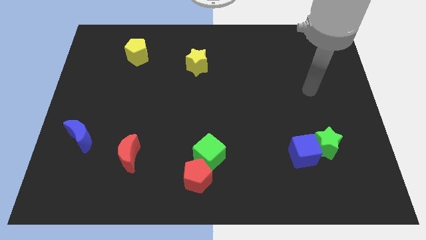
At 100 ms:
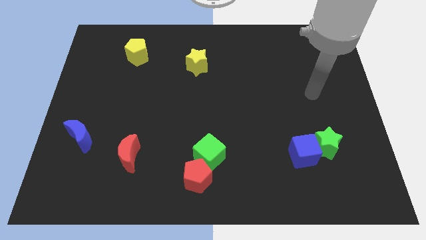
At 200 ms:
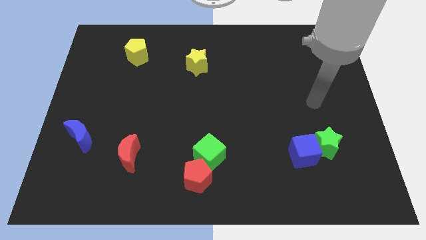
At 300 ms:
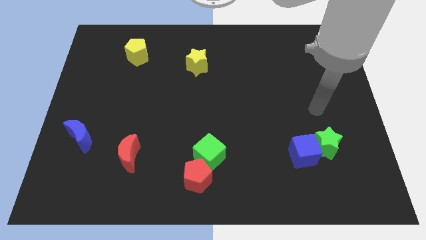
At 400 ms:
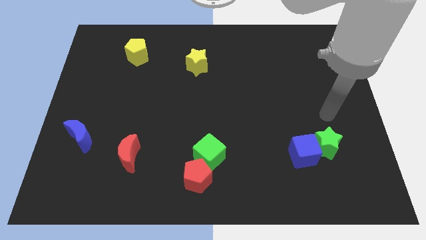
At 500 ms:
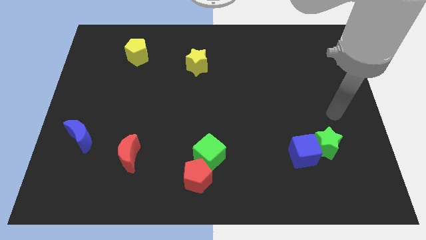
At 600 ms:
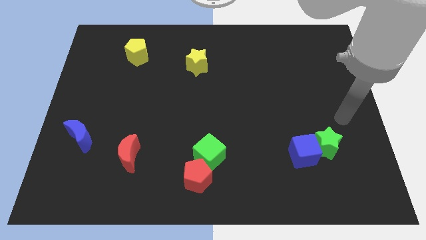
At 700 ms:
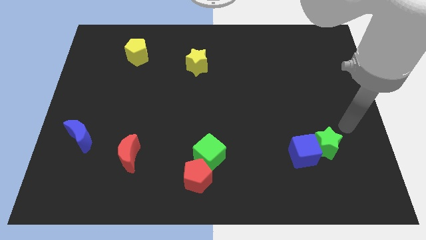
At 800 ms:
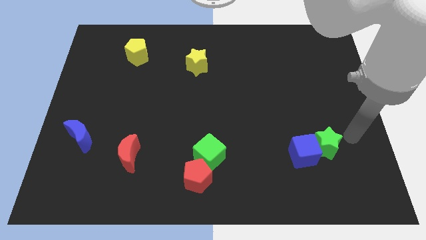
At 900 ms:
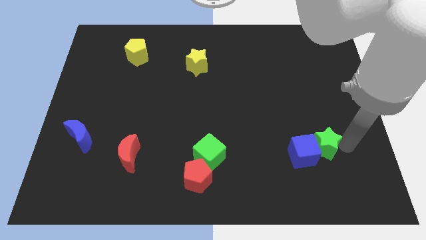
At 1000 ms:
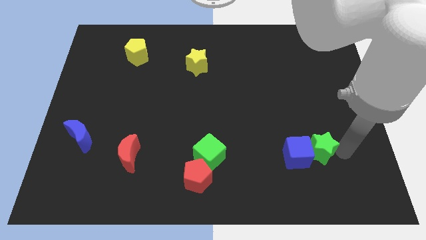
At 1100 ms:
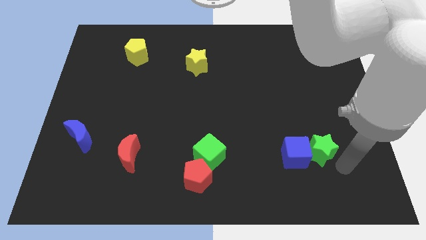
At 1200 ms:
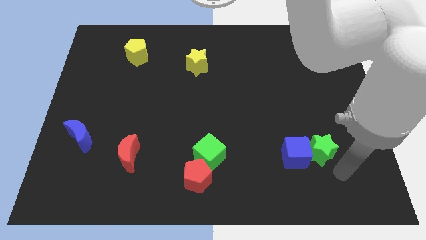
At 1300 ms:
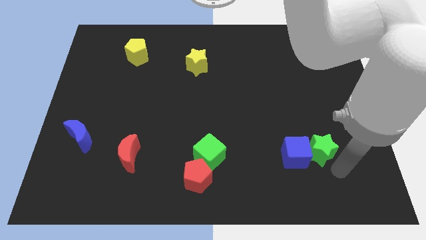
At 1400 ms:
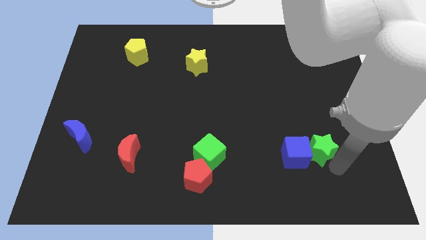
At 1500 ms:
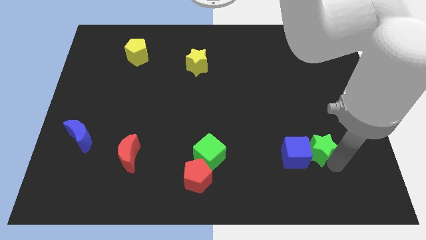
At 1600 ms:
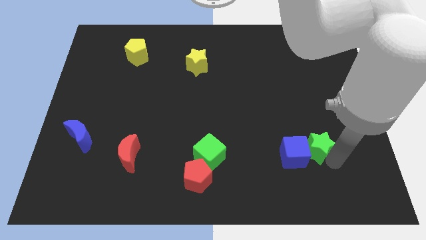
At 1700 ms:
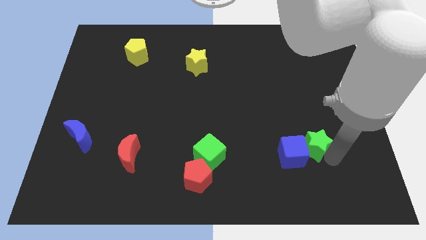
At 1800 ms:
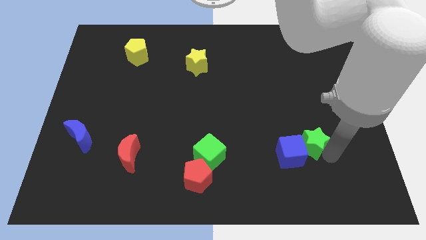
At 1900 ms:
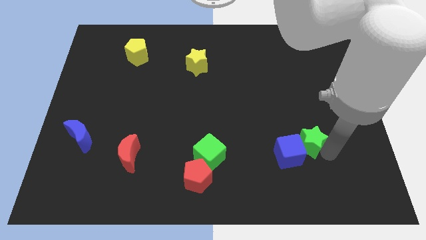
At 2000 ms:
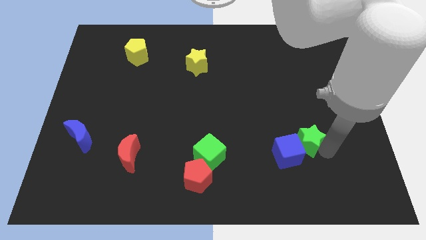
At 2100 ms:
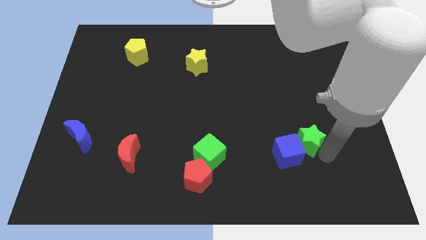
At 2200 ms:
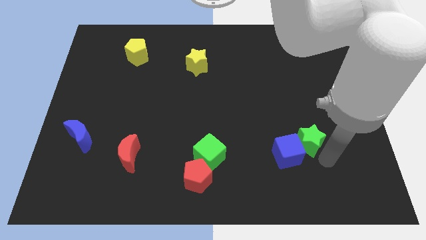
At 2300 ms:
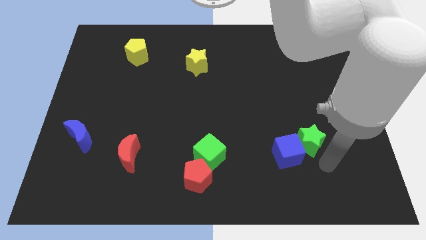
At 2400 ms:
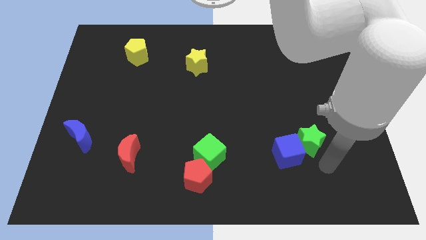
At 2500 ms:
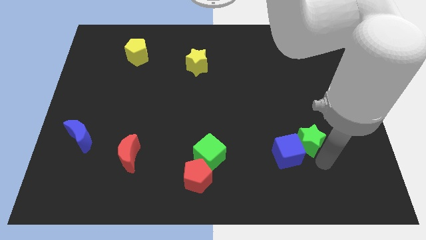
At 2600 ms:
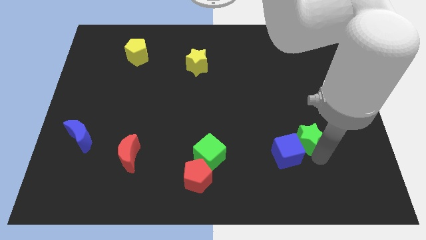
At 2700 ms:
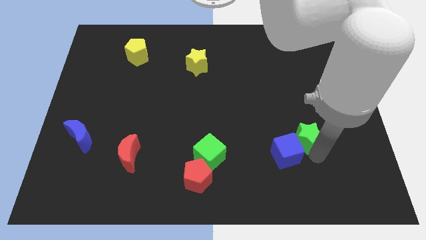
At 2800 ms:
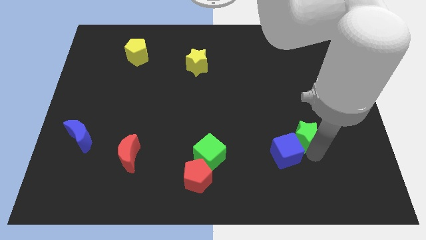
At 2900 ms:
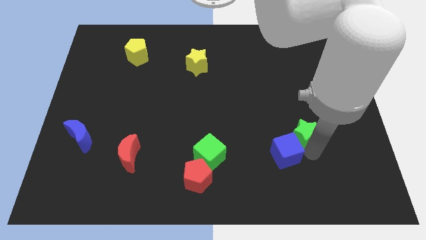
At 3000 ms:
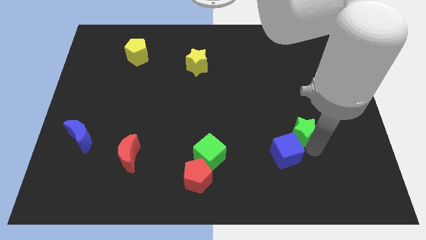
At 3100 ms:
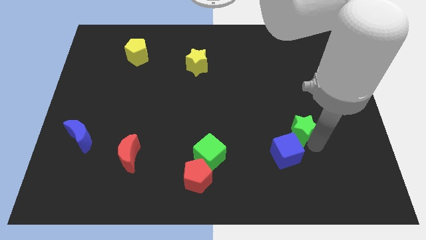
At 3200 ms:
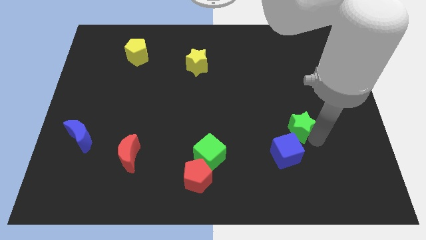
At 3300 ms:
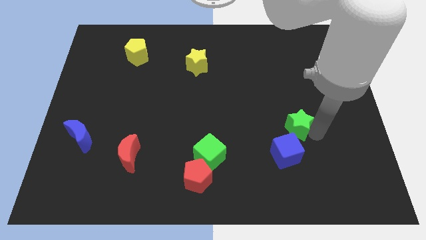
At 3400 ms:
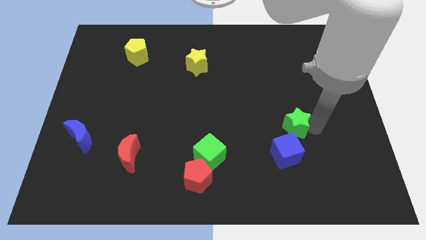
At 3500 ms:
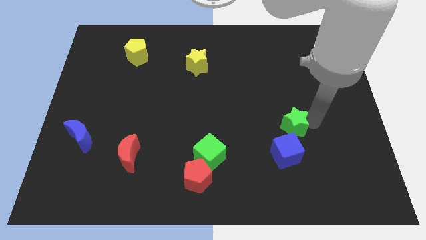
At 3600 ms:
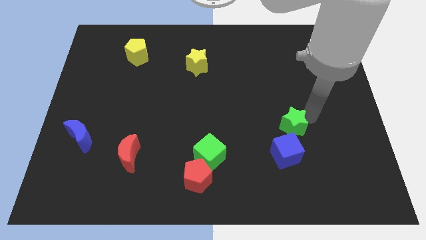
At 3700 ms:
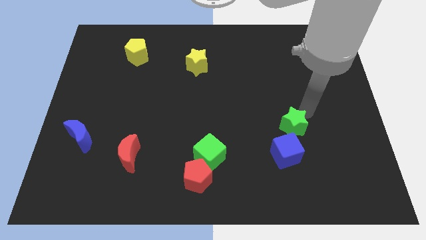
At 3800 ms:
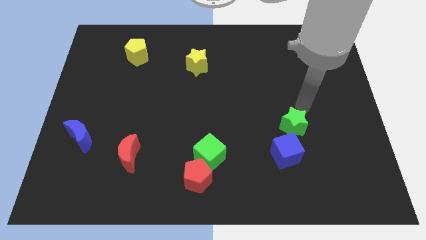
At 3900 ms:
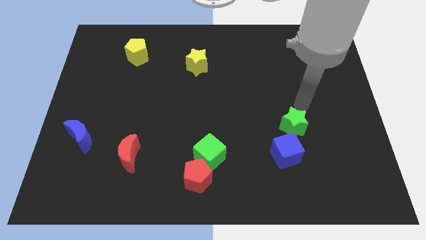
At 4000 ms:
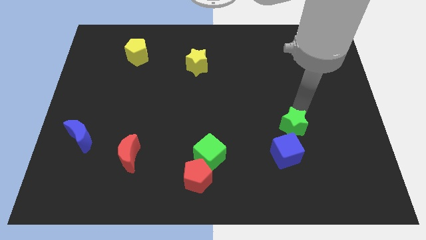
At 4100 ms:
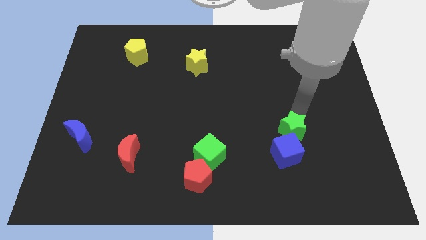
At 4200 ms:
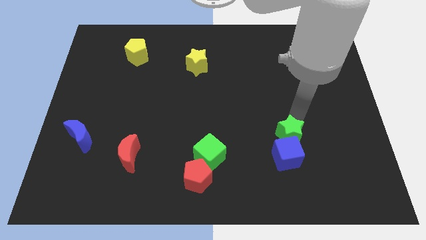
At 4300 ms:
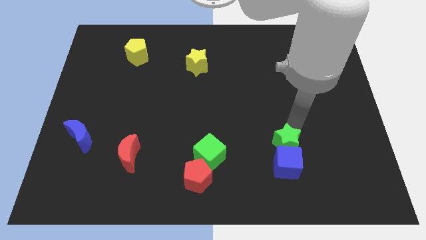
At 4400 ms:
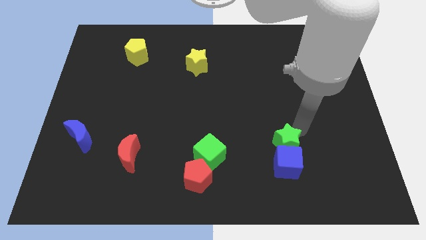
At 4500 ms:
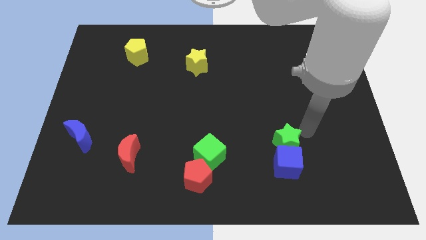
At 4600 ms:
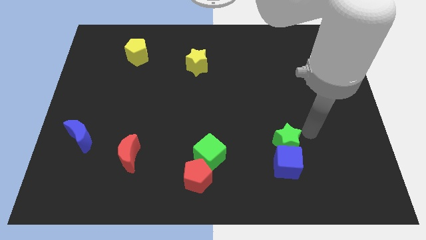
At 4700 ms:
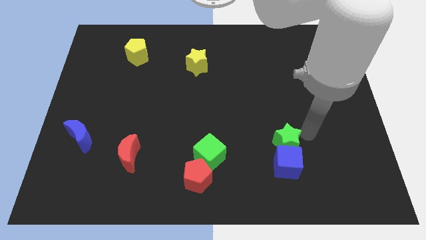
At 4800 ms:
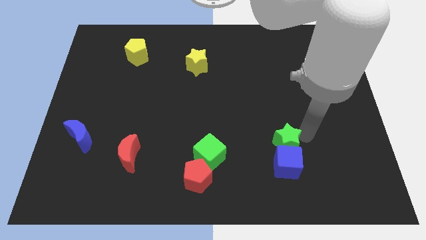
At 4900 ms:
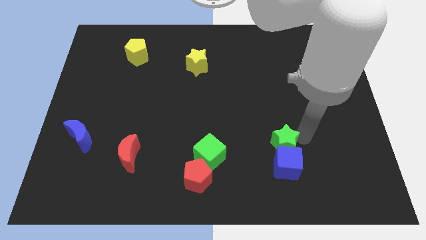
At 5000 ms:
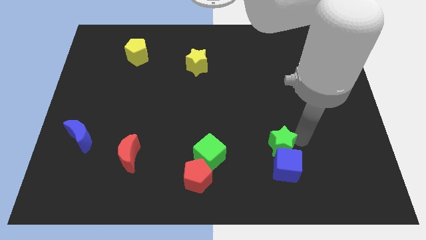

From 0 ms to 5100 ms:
slide the green star just right of the green cube

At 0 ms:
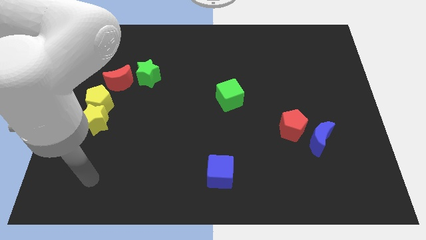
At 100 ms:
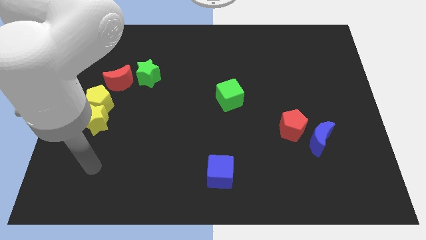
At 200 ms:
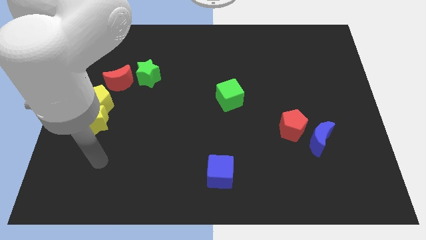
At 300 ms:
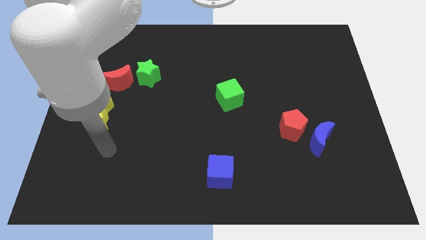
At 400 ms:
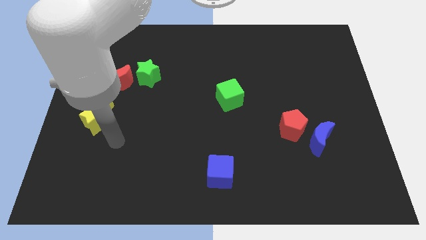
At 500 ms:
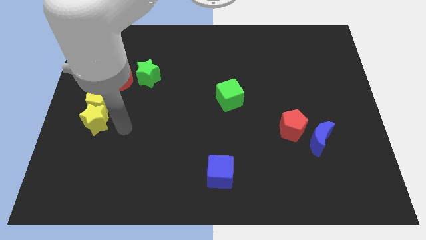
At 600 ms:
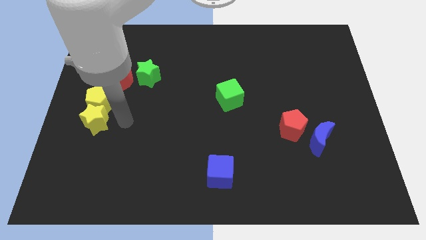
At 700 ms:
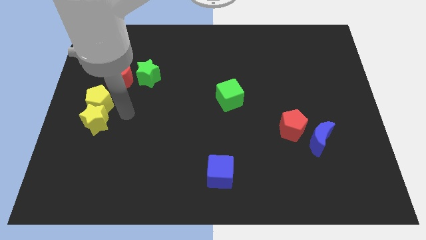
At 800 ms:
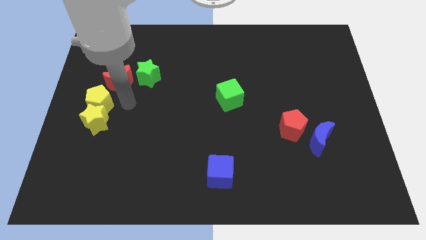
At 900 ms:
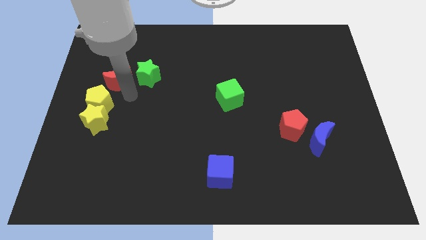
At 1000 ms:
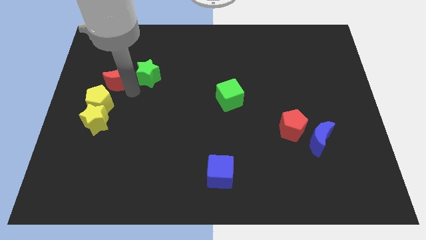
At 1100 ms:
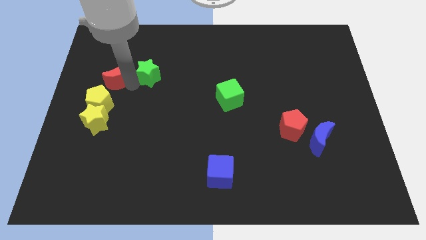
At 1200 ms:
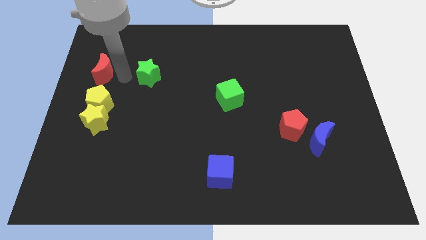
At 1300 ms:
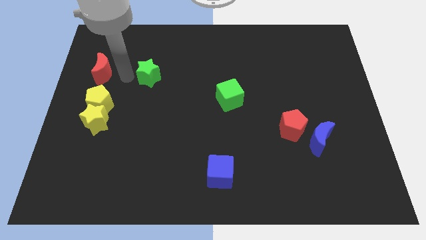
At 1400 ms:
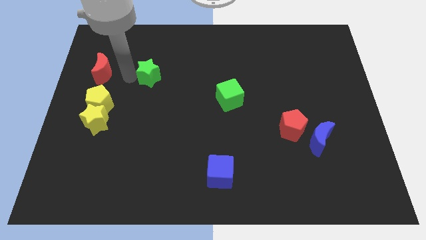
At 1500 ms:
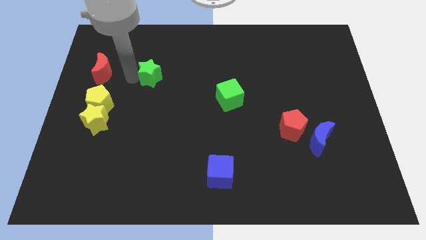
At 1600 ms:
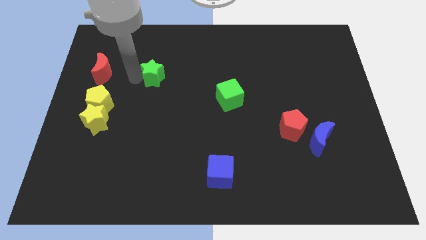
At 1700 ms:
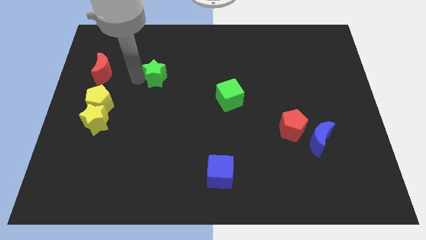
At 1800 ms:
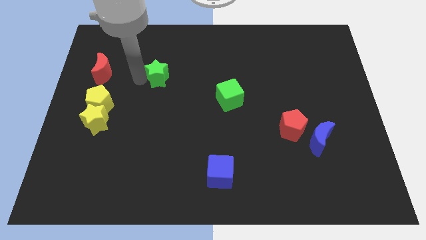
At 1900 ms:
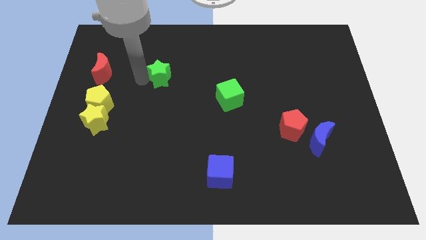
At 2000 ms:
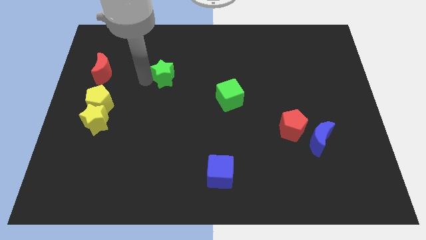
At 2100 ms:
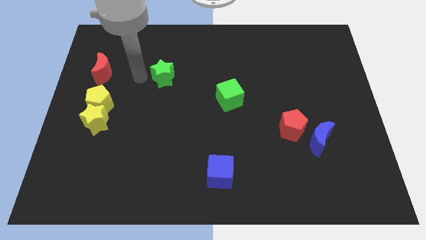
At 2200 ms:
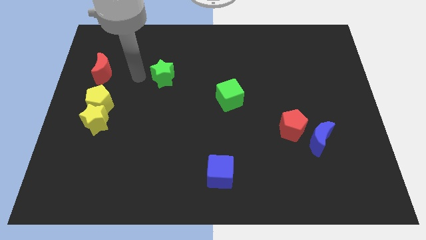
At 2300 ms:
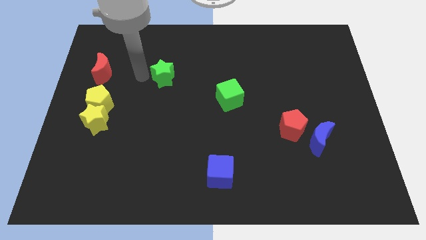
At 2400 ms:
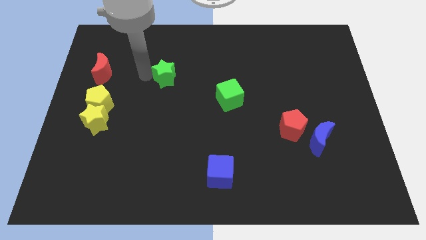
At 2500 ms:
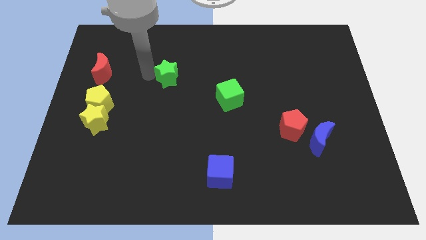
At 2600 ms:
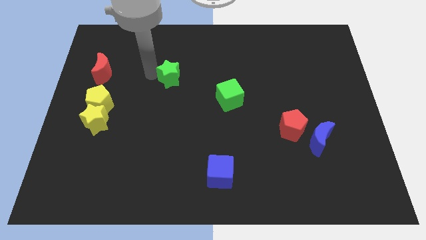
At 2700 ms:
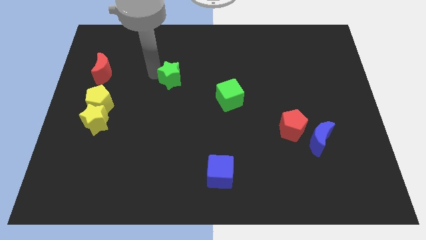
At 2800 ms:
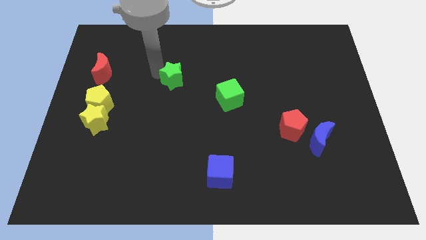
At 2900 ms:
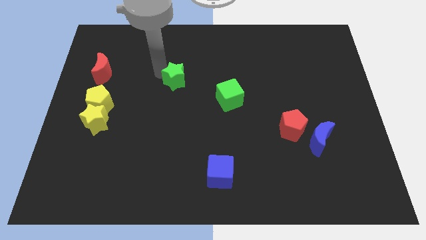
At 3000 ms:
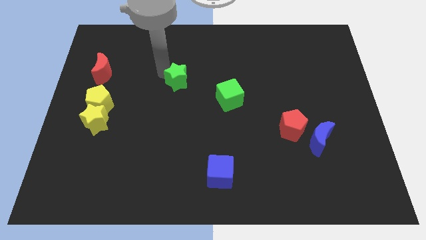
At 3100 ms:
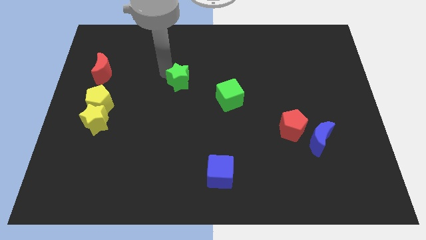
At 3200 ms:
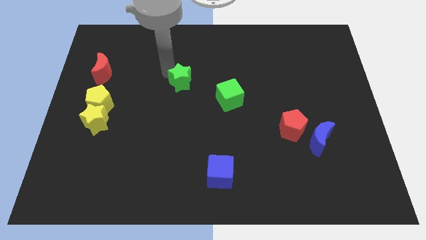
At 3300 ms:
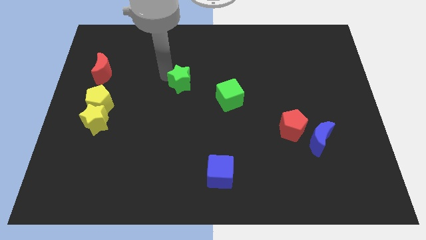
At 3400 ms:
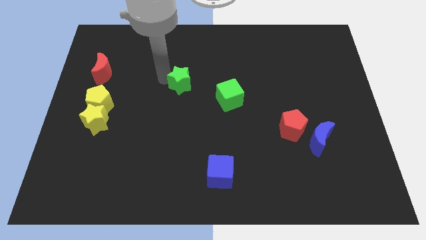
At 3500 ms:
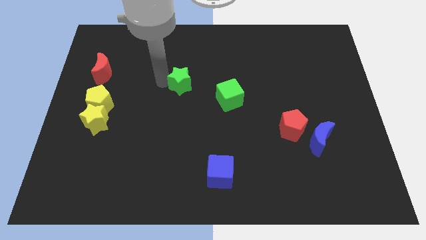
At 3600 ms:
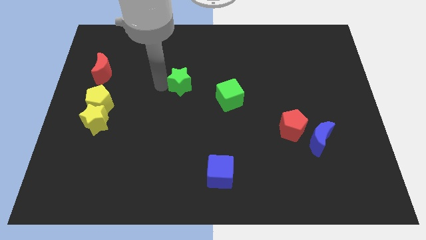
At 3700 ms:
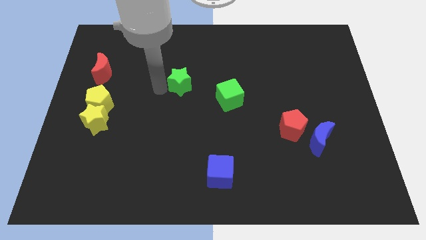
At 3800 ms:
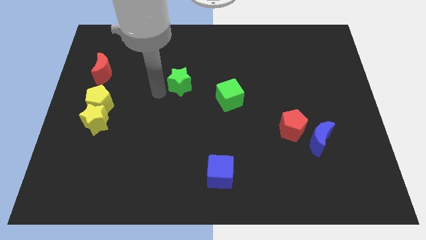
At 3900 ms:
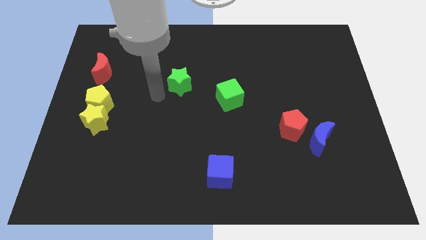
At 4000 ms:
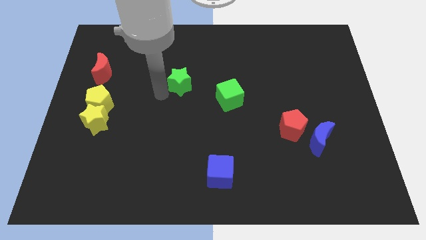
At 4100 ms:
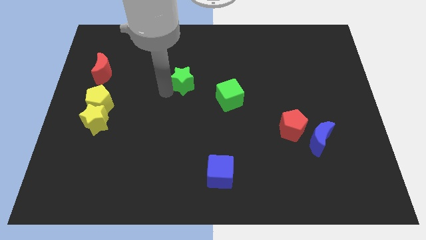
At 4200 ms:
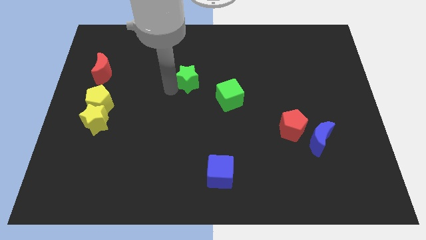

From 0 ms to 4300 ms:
push the green star to the top left side of the green cube
